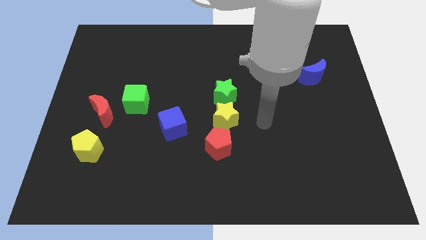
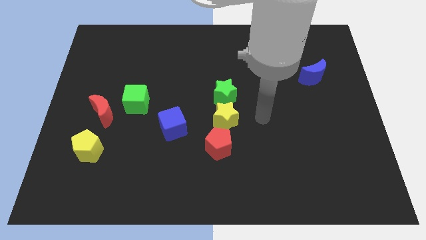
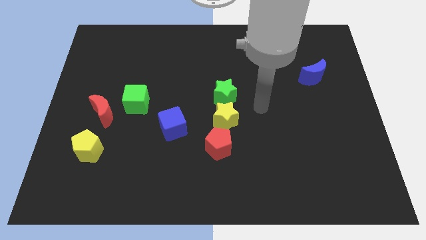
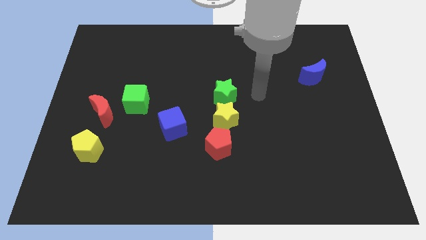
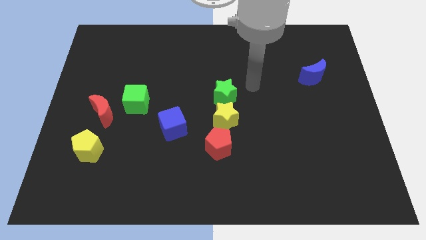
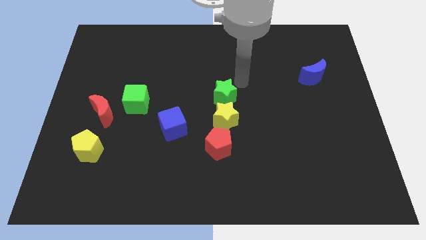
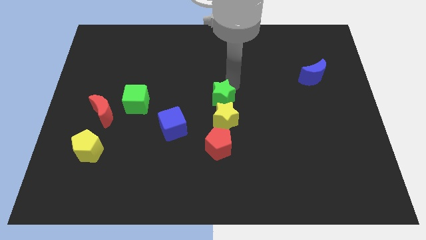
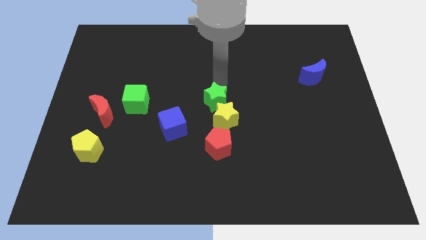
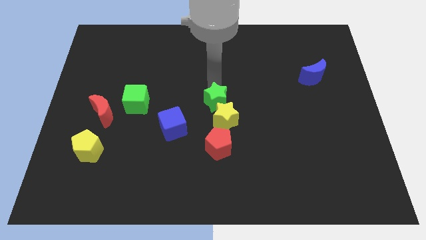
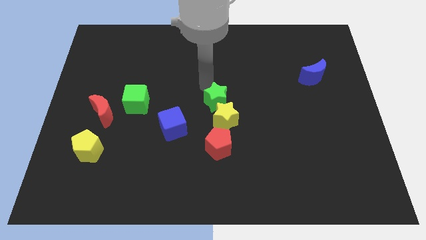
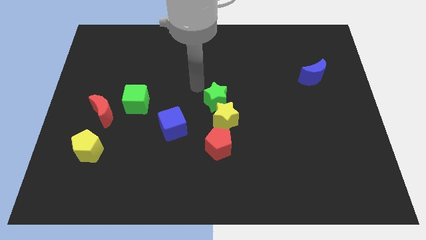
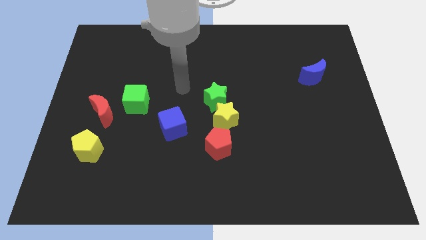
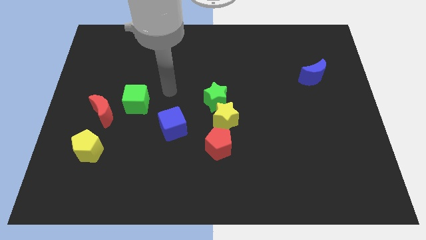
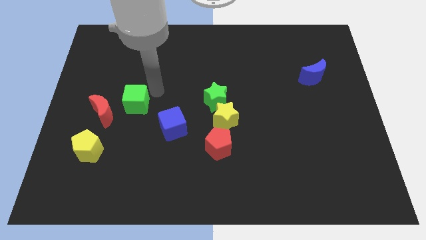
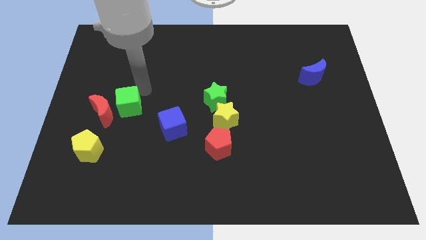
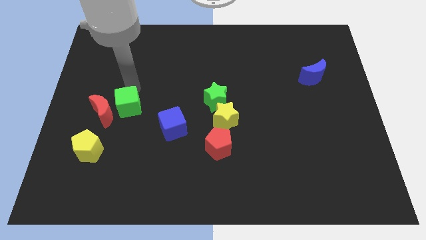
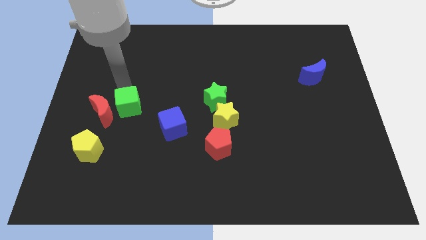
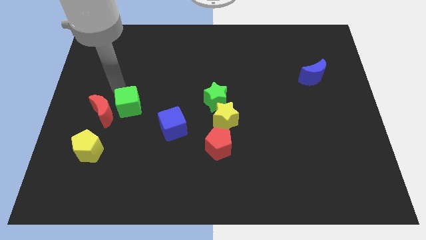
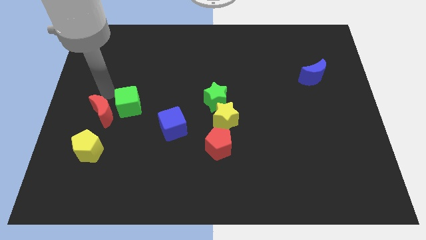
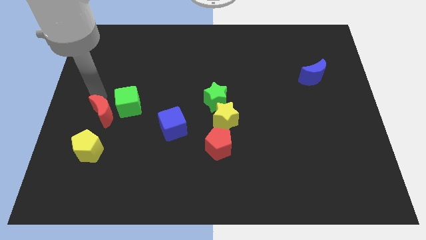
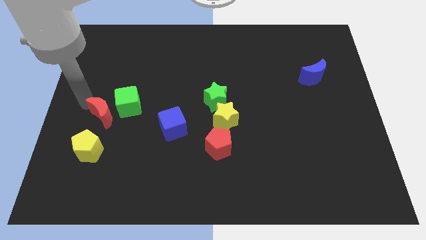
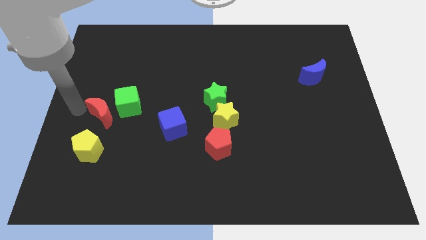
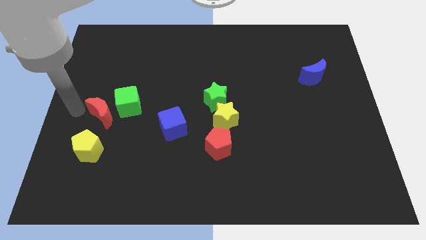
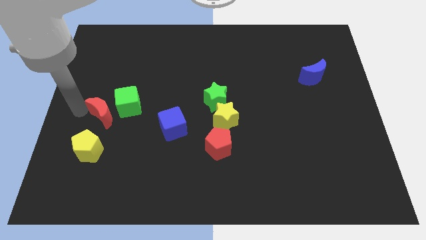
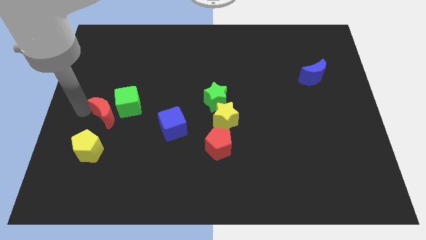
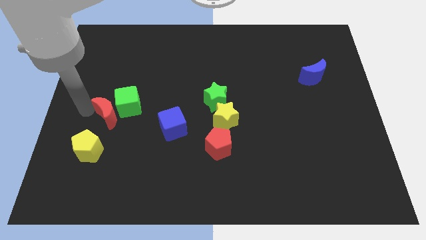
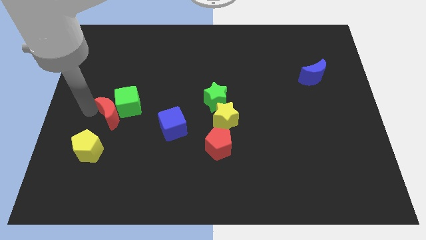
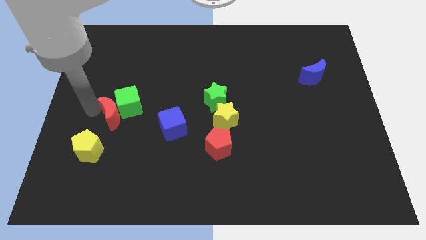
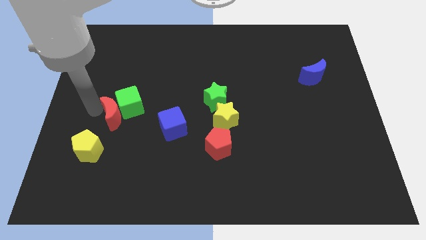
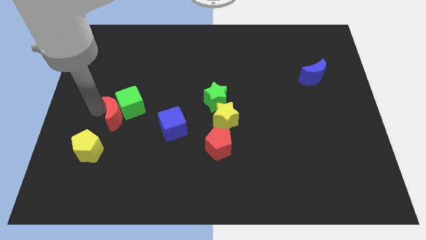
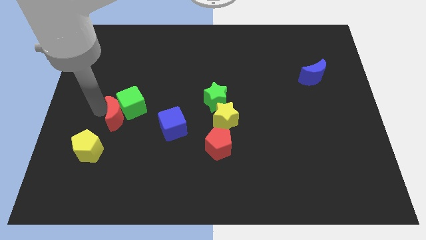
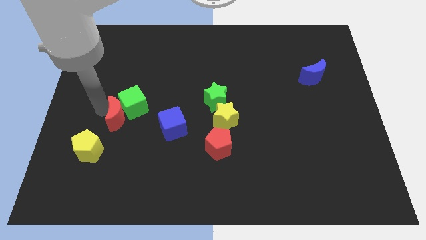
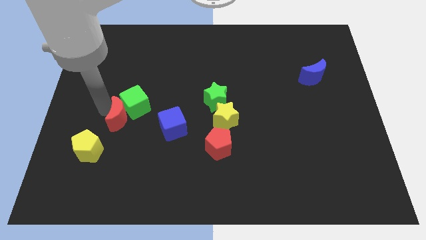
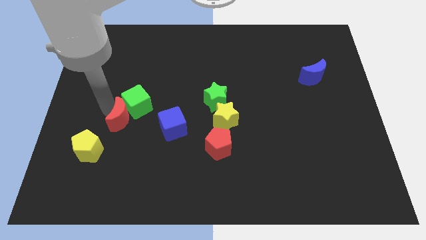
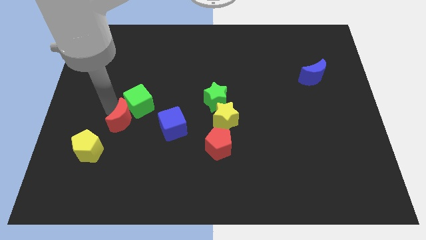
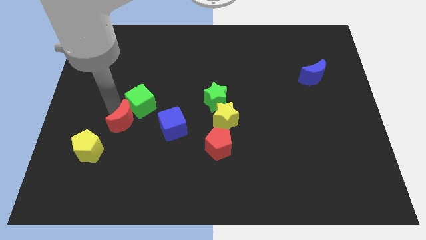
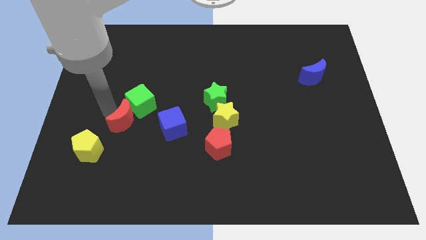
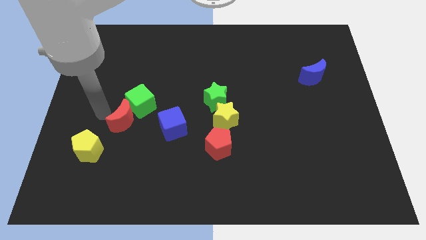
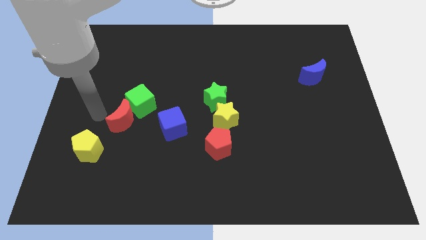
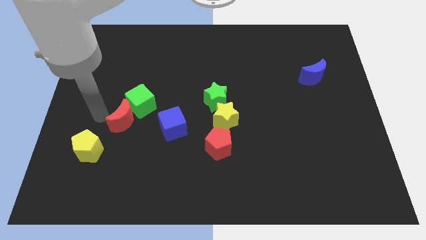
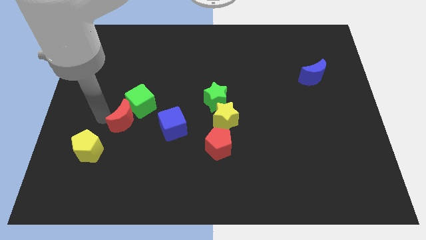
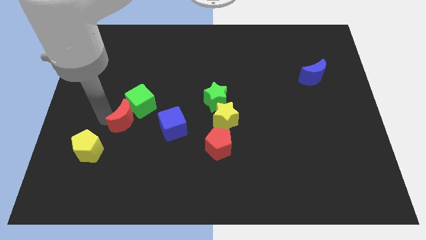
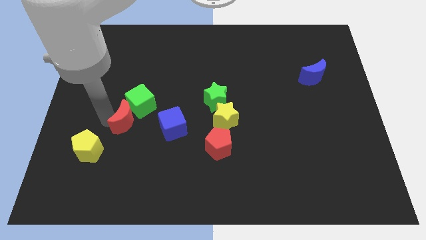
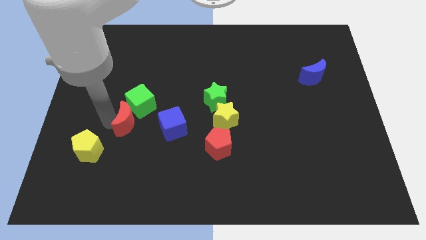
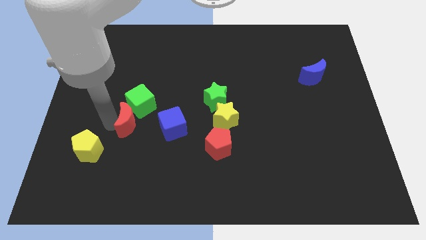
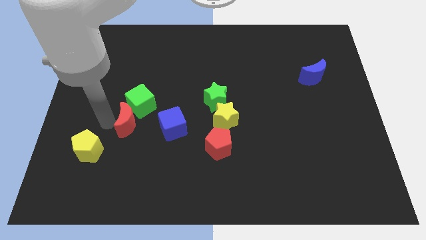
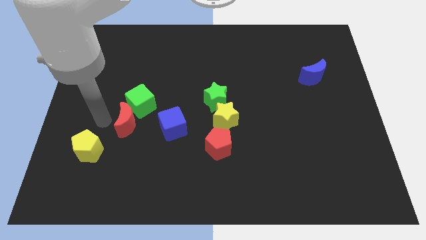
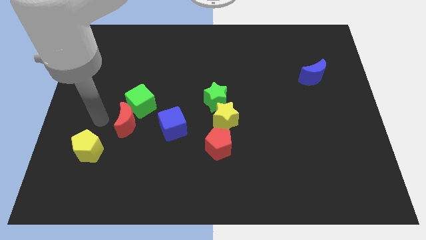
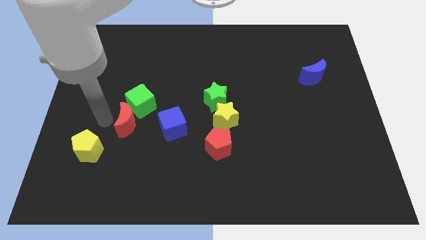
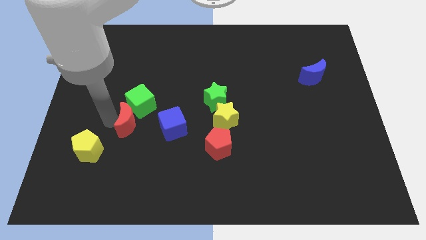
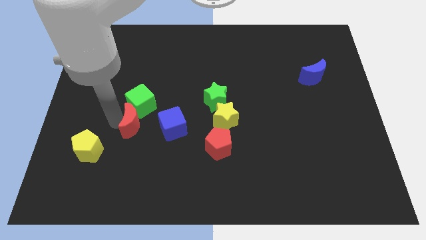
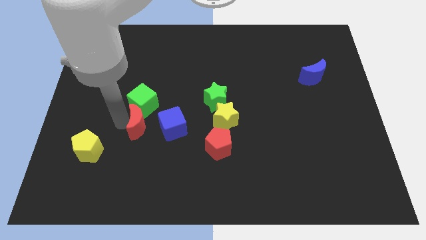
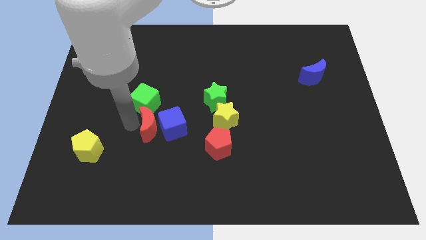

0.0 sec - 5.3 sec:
put the red moon to the blue cube

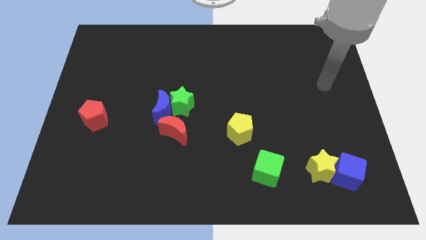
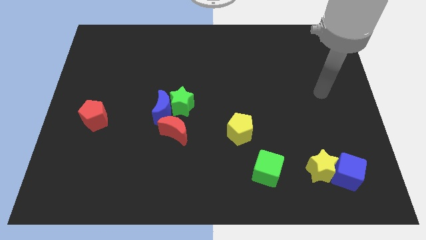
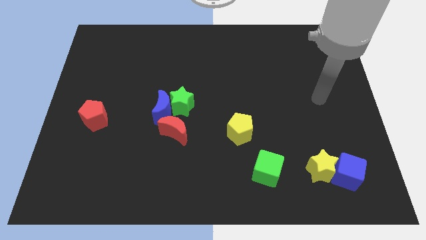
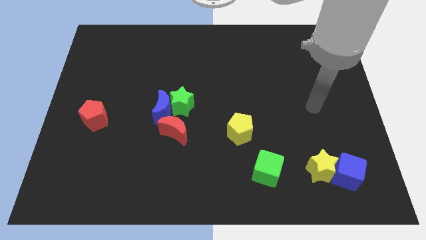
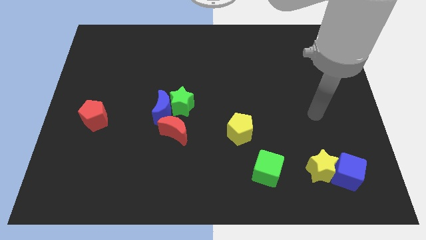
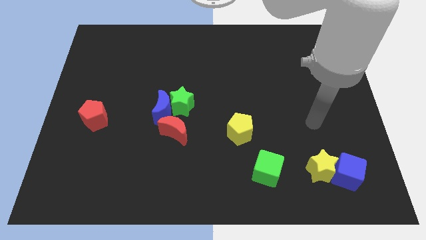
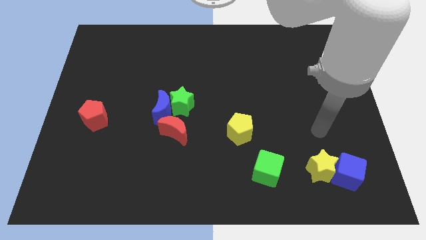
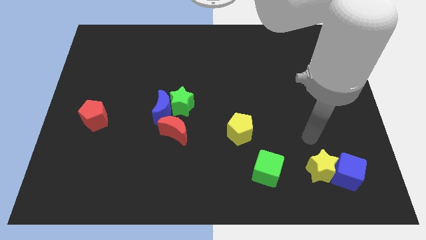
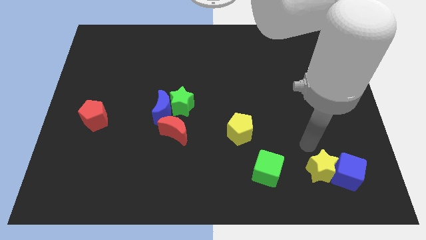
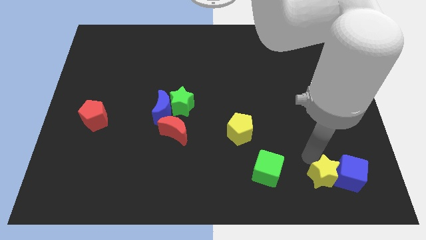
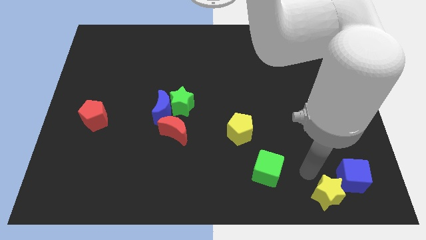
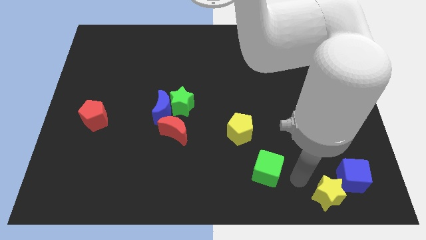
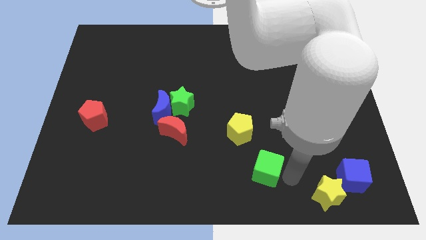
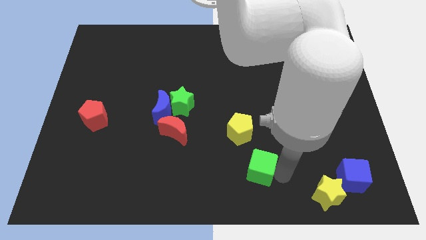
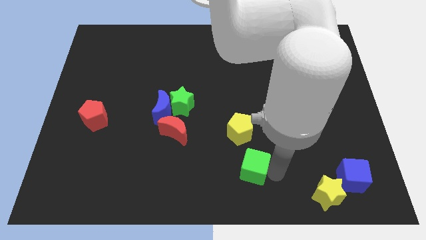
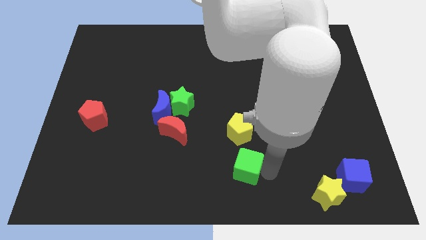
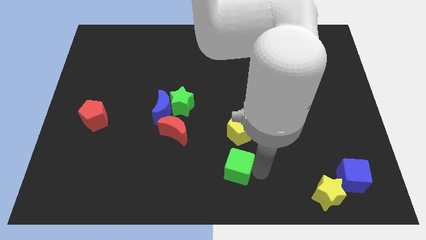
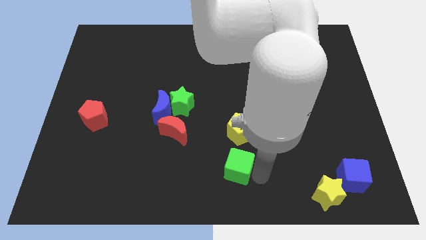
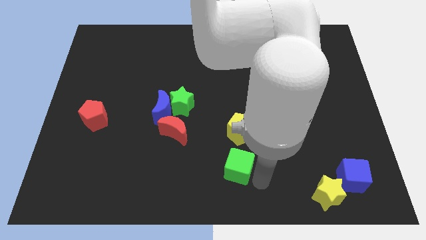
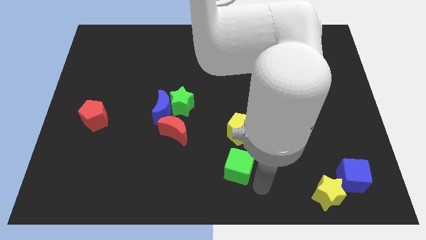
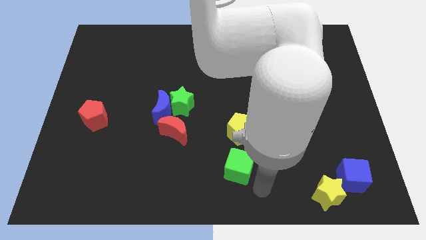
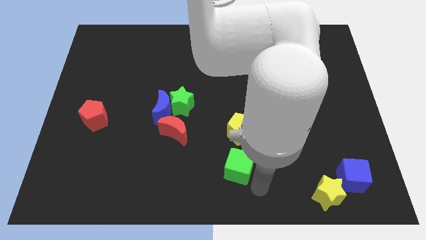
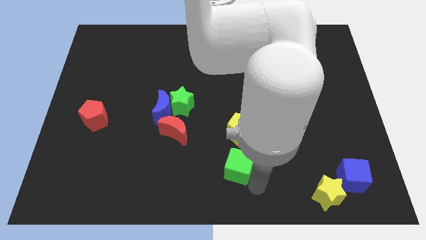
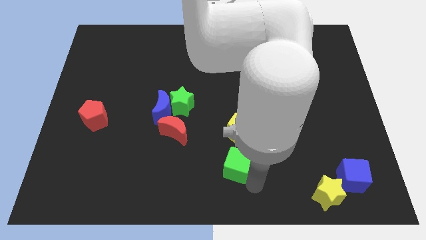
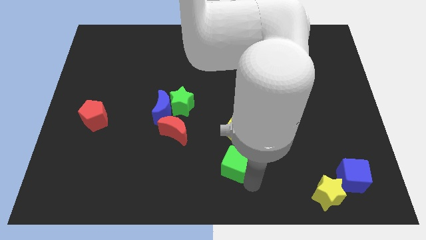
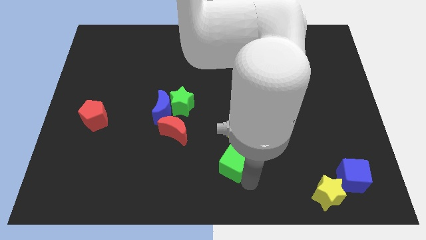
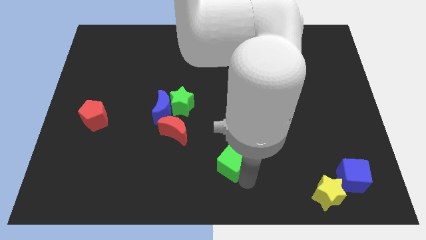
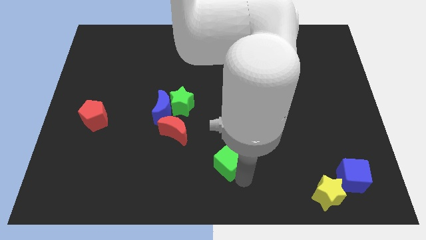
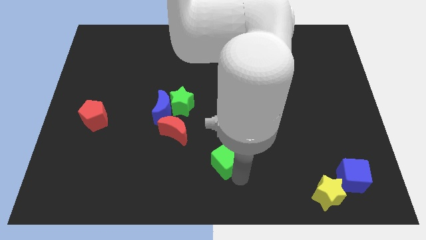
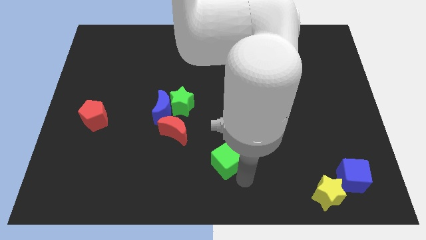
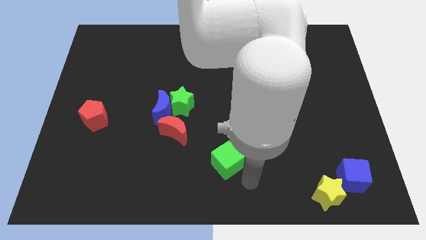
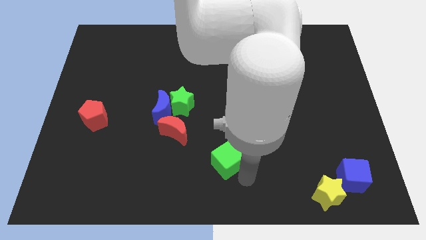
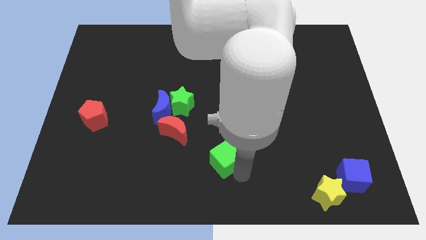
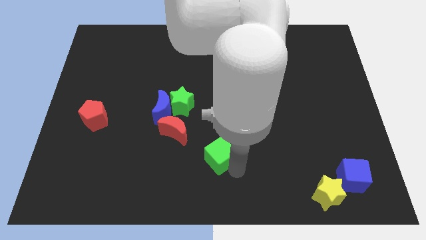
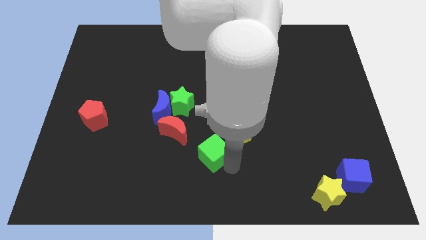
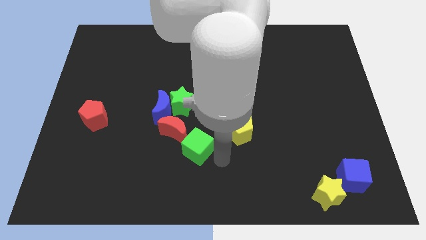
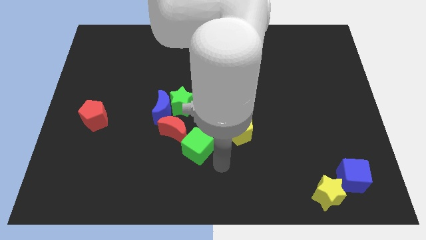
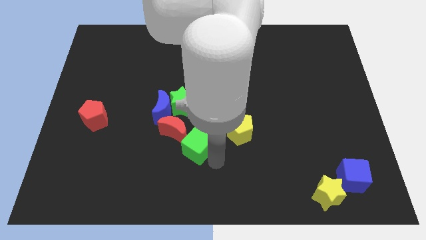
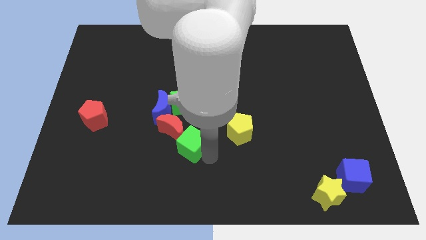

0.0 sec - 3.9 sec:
push the green cube towards the red moon
